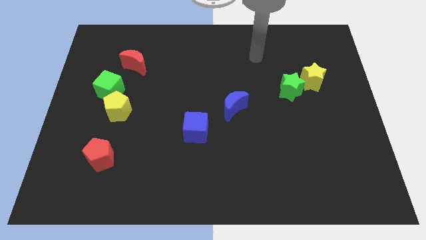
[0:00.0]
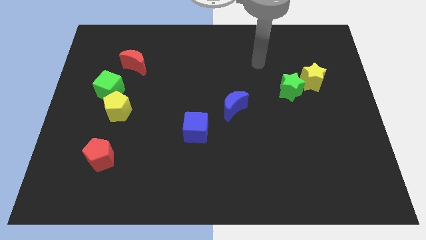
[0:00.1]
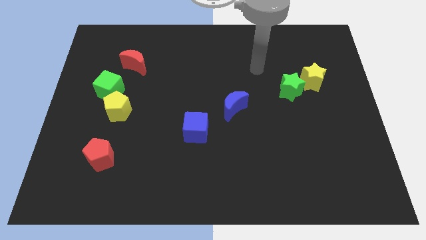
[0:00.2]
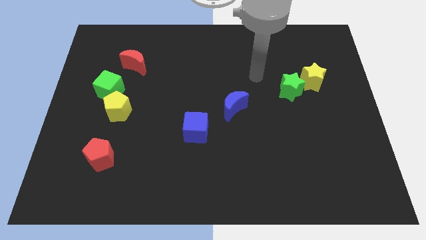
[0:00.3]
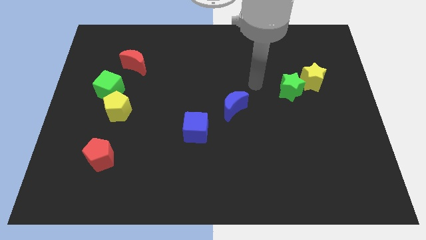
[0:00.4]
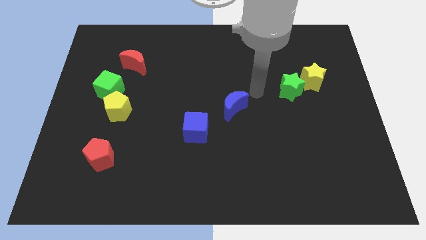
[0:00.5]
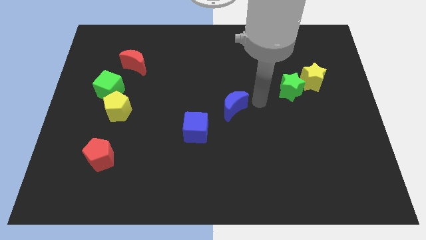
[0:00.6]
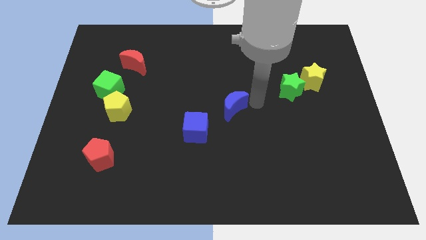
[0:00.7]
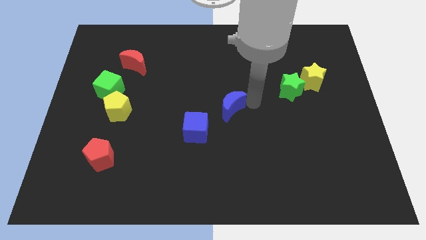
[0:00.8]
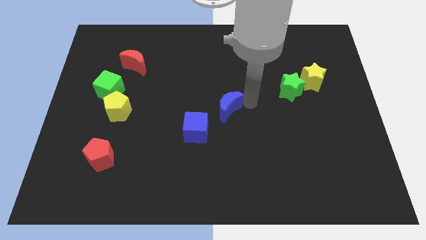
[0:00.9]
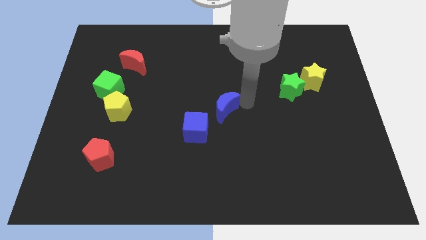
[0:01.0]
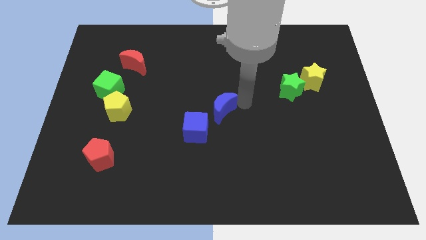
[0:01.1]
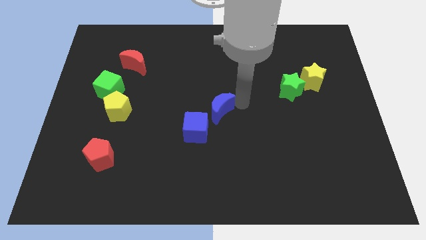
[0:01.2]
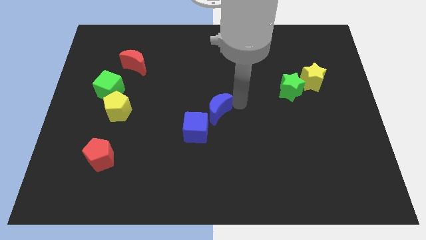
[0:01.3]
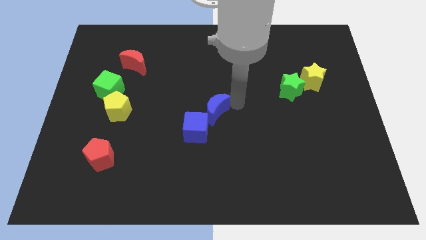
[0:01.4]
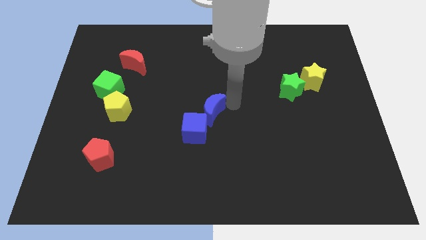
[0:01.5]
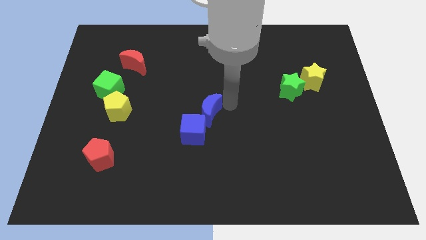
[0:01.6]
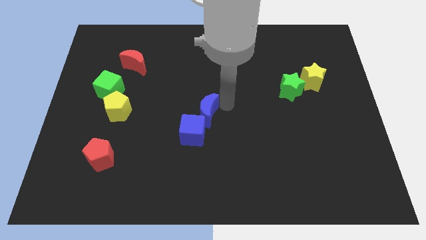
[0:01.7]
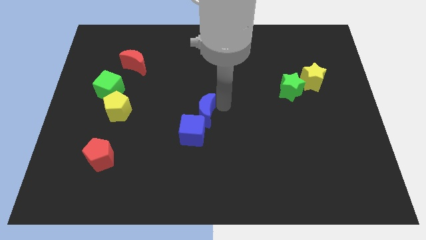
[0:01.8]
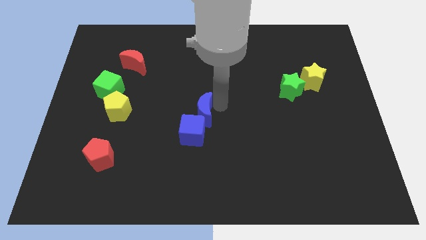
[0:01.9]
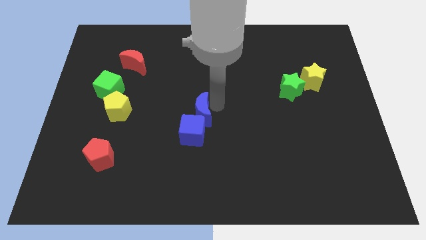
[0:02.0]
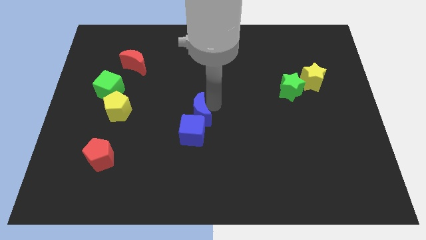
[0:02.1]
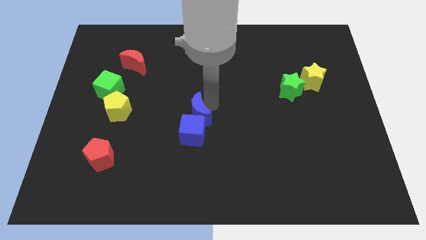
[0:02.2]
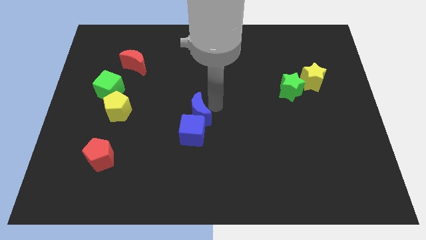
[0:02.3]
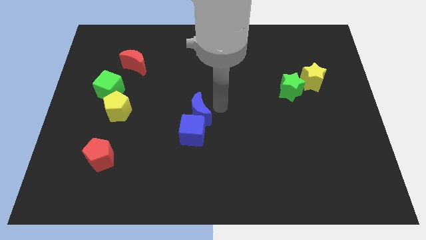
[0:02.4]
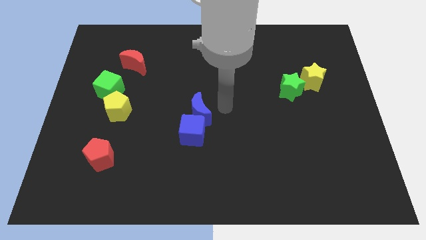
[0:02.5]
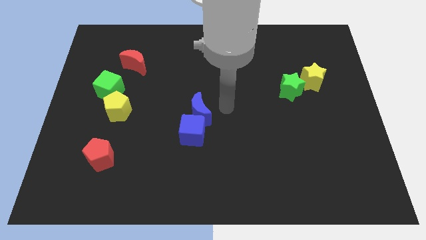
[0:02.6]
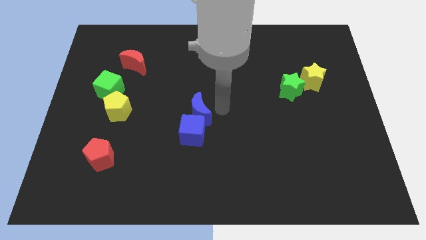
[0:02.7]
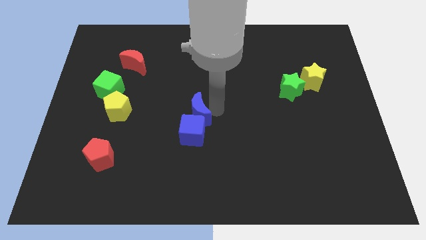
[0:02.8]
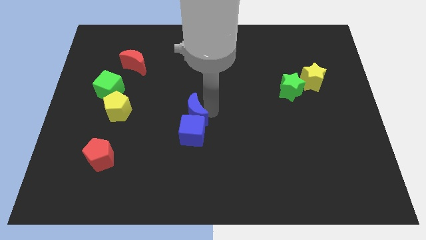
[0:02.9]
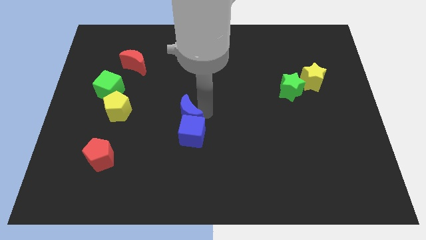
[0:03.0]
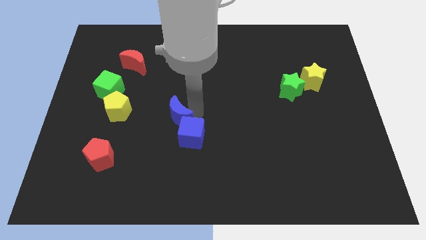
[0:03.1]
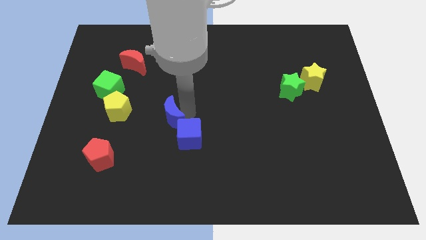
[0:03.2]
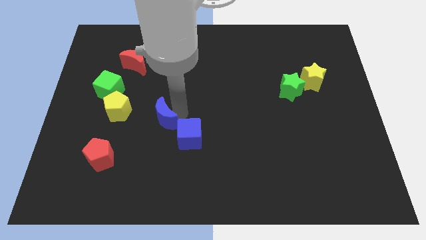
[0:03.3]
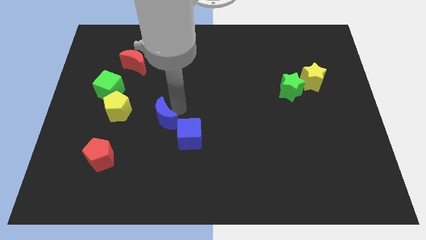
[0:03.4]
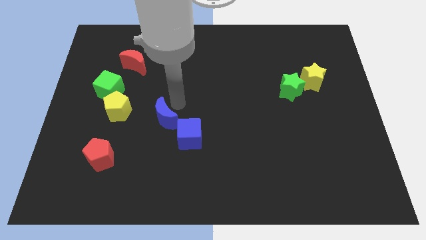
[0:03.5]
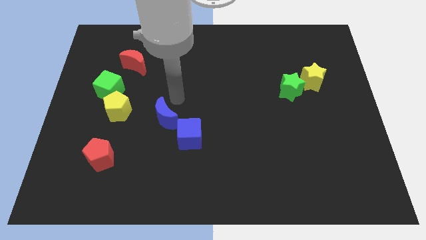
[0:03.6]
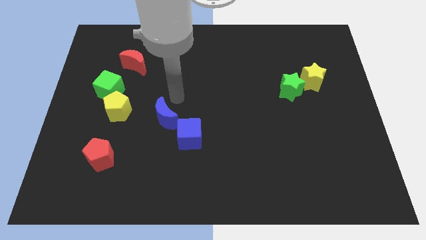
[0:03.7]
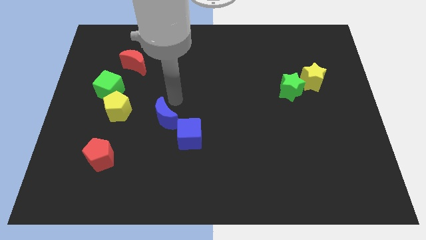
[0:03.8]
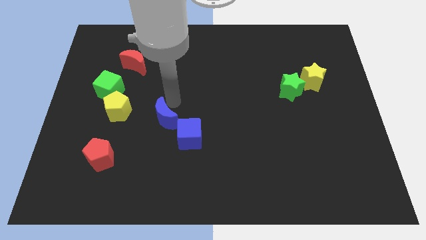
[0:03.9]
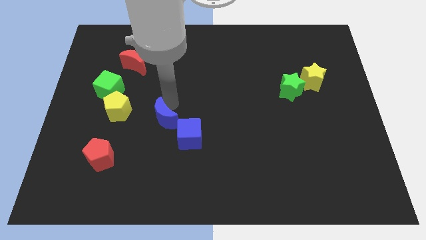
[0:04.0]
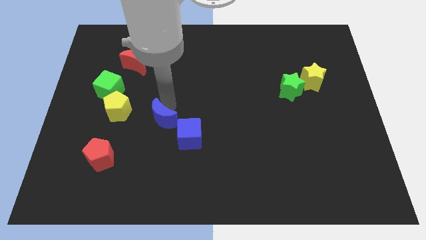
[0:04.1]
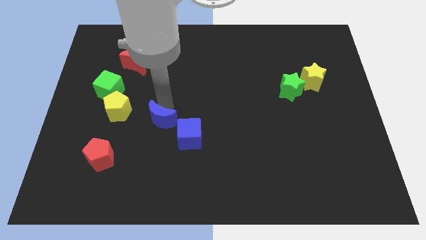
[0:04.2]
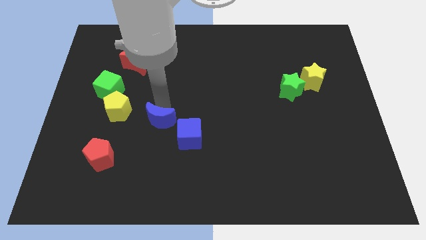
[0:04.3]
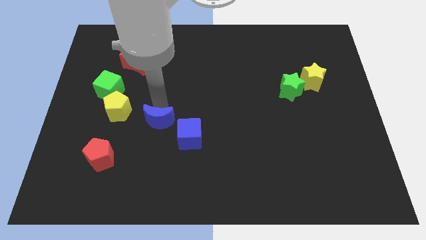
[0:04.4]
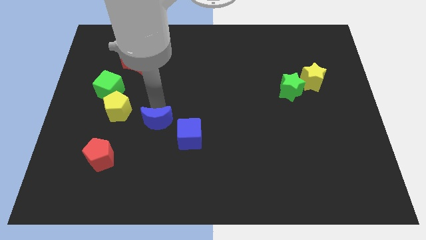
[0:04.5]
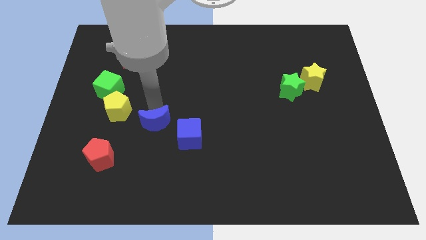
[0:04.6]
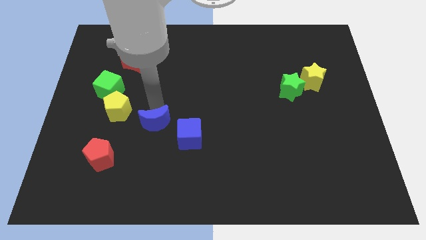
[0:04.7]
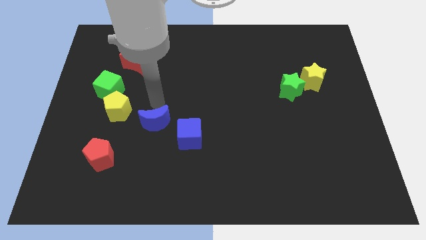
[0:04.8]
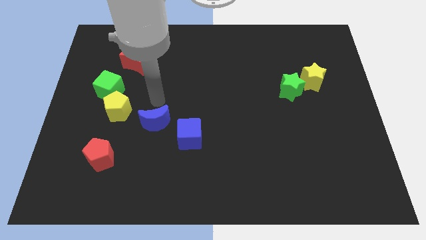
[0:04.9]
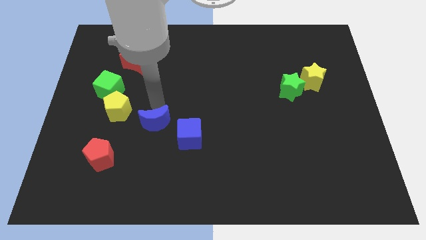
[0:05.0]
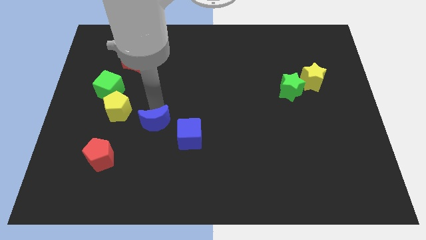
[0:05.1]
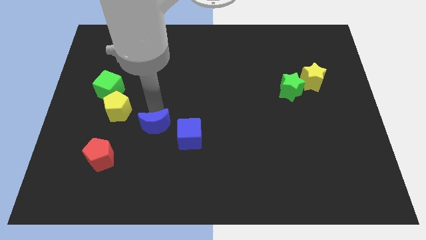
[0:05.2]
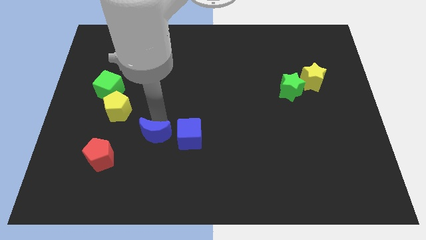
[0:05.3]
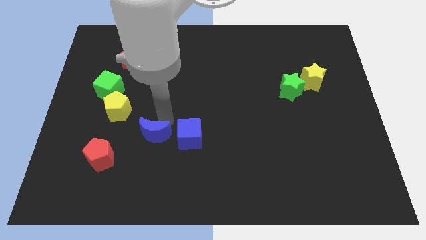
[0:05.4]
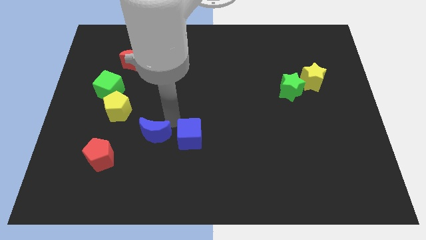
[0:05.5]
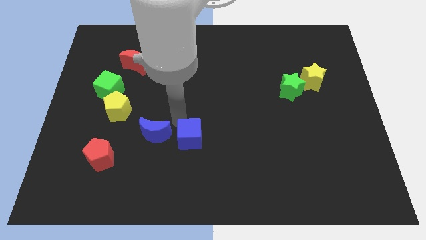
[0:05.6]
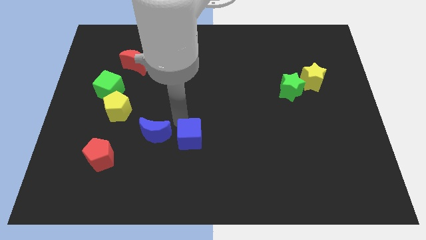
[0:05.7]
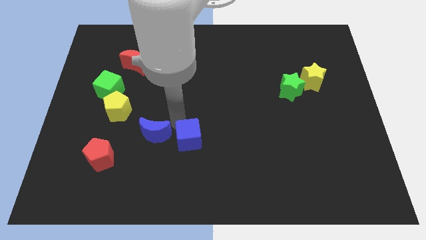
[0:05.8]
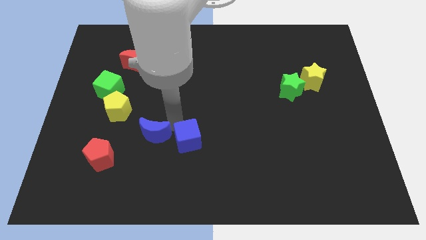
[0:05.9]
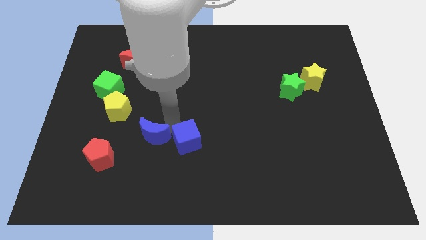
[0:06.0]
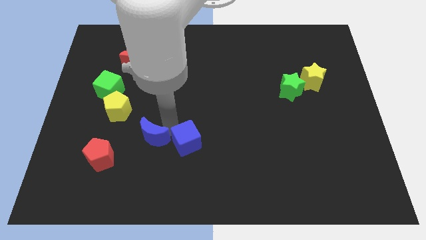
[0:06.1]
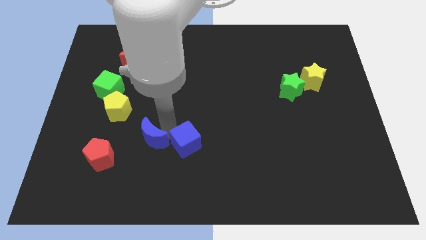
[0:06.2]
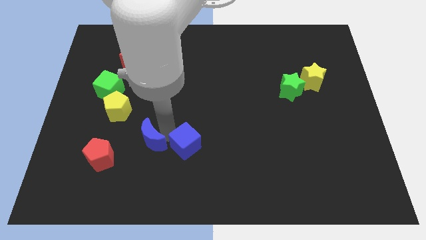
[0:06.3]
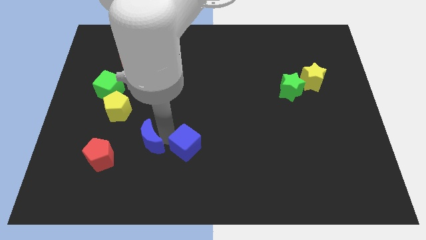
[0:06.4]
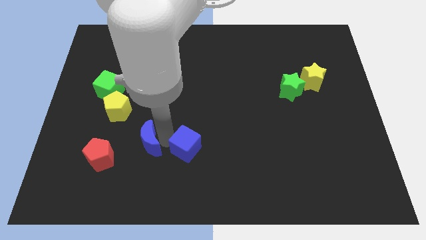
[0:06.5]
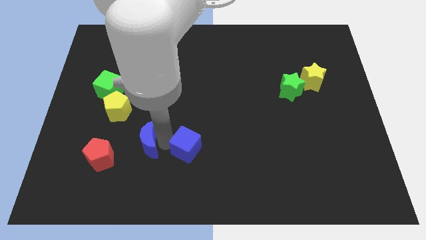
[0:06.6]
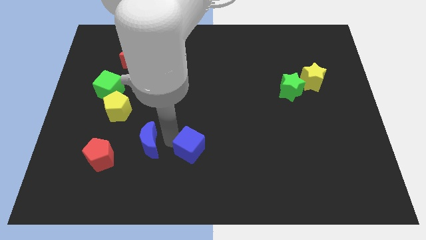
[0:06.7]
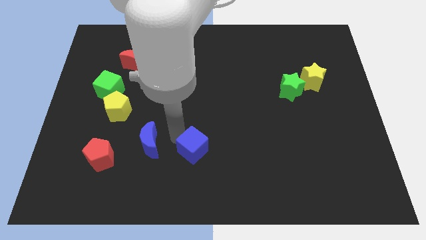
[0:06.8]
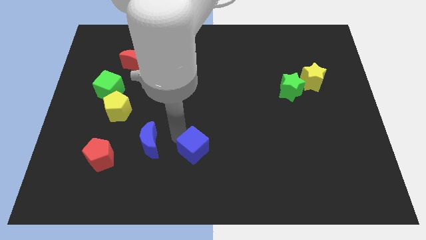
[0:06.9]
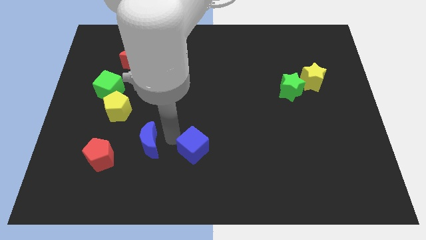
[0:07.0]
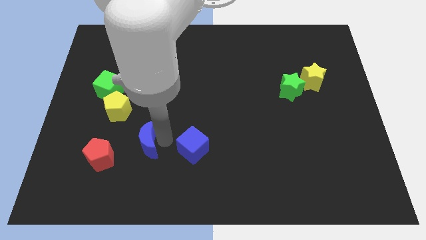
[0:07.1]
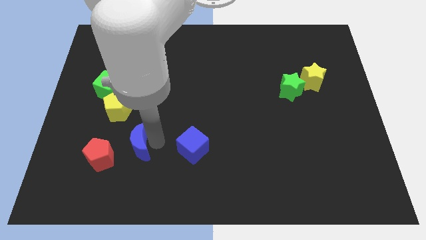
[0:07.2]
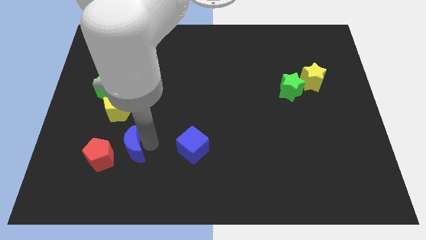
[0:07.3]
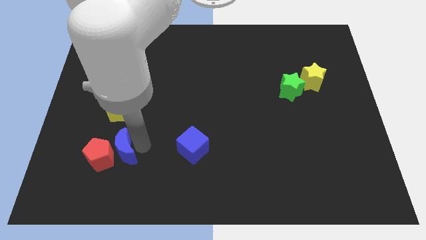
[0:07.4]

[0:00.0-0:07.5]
put the blue moon next to the red pentagon

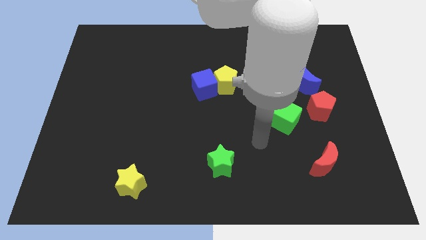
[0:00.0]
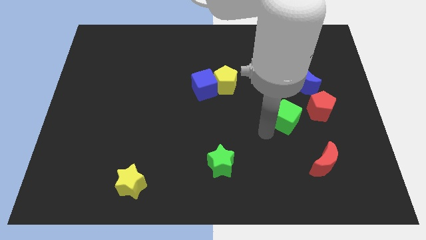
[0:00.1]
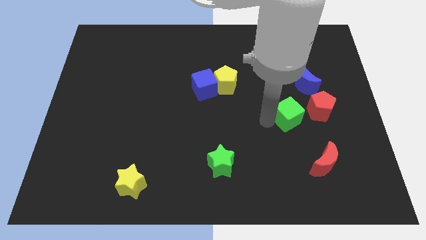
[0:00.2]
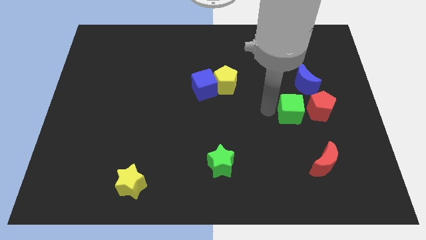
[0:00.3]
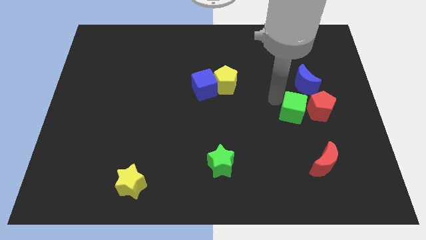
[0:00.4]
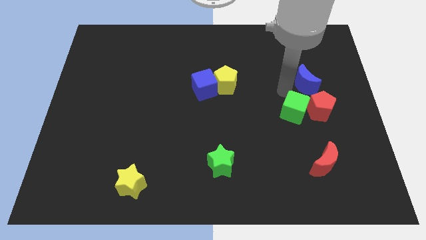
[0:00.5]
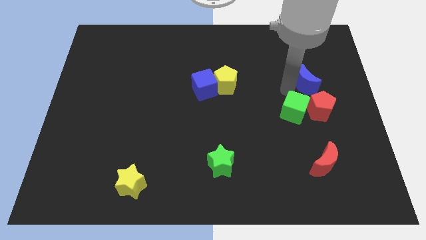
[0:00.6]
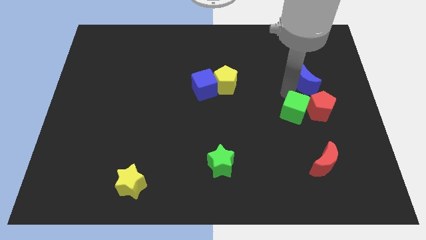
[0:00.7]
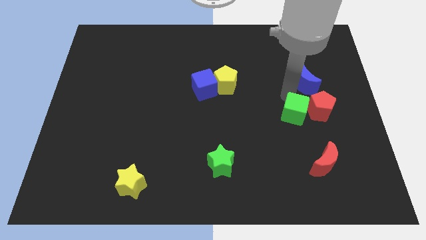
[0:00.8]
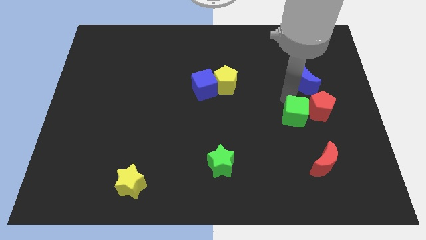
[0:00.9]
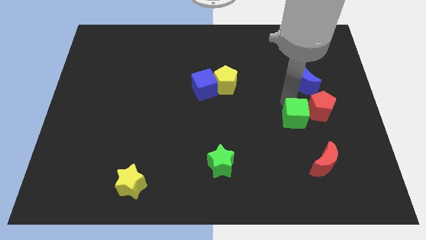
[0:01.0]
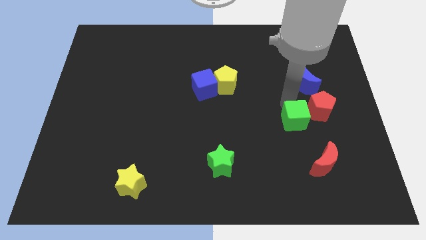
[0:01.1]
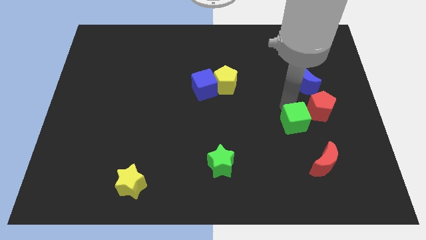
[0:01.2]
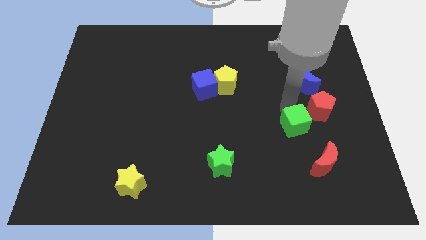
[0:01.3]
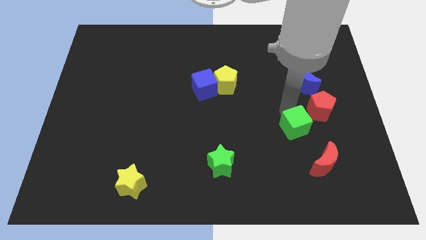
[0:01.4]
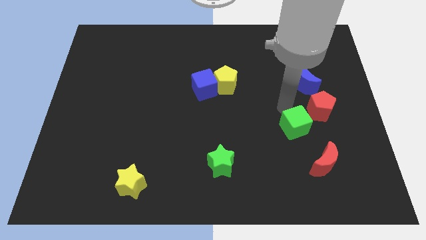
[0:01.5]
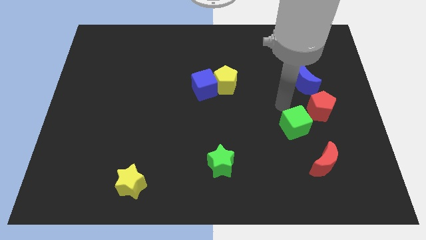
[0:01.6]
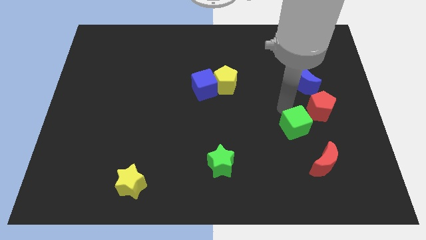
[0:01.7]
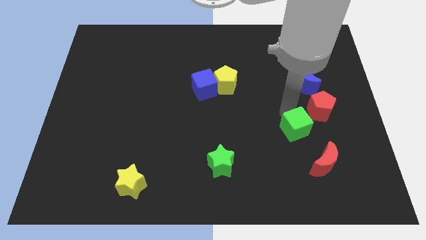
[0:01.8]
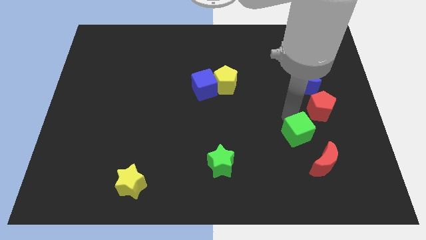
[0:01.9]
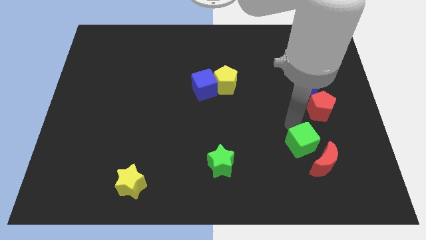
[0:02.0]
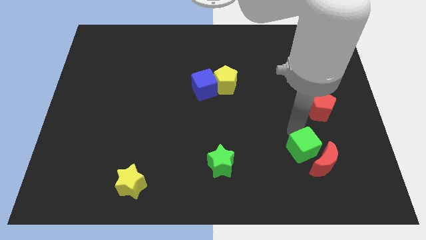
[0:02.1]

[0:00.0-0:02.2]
move the green cube next to the red moon
